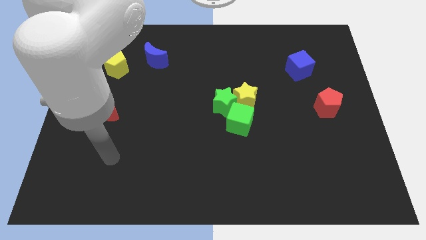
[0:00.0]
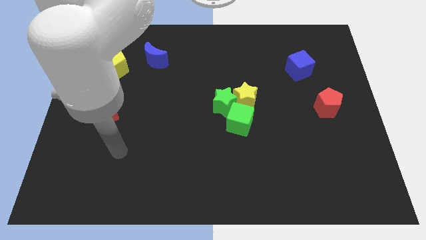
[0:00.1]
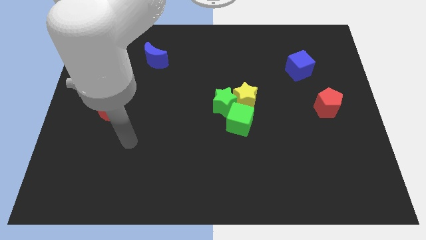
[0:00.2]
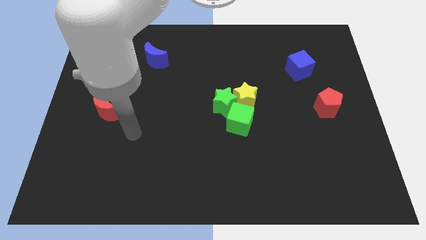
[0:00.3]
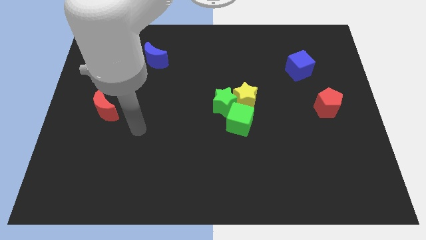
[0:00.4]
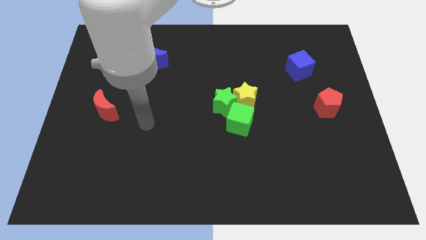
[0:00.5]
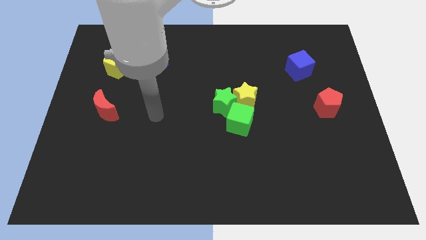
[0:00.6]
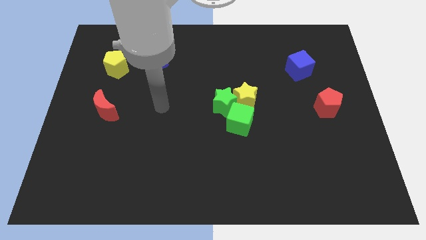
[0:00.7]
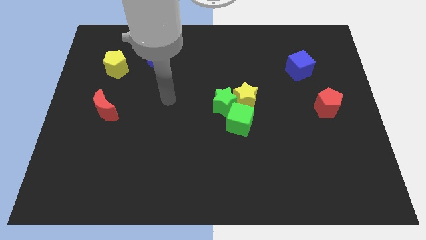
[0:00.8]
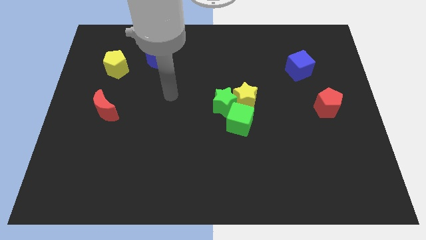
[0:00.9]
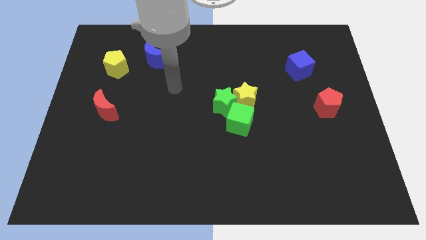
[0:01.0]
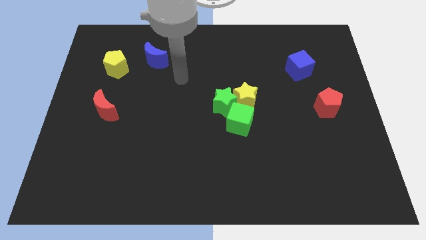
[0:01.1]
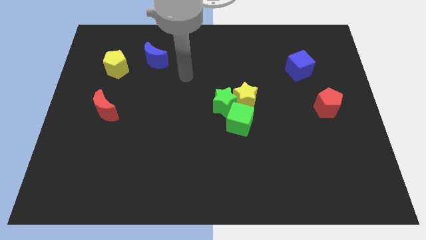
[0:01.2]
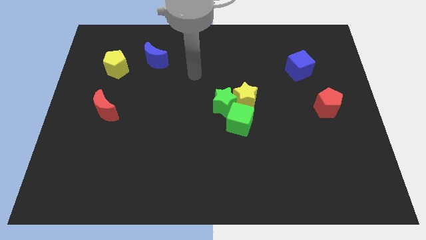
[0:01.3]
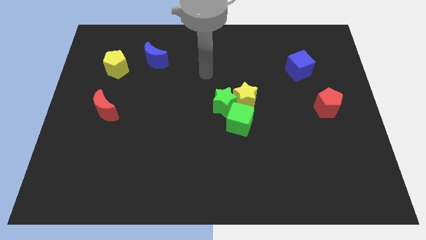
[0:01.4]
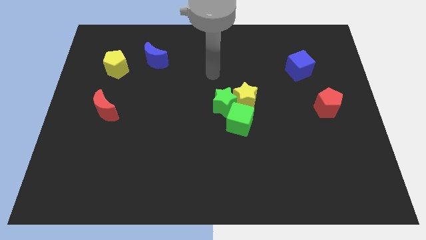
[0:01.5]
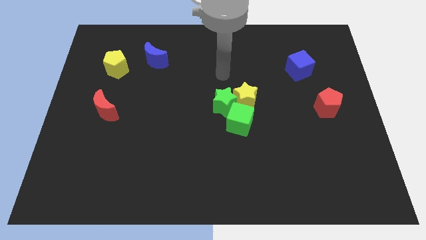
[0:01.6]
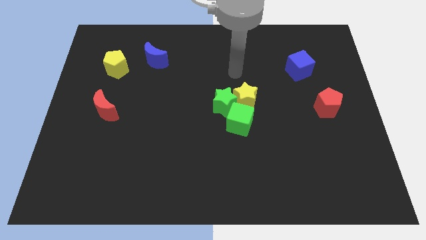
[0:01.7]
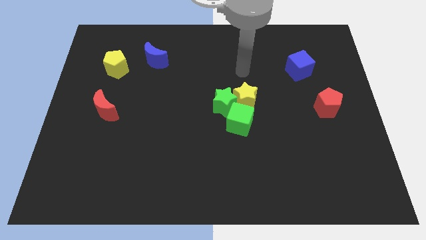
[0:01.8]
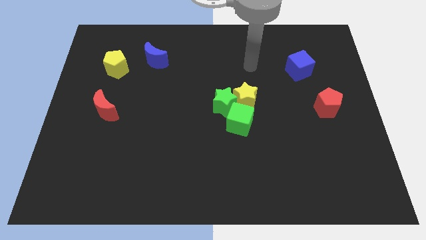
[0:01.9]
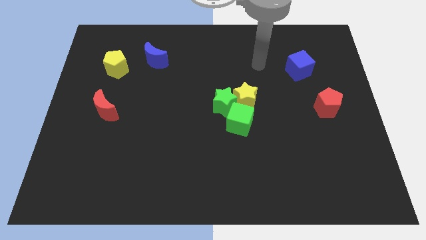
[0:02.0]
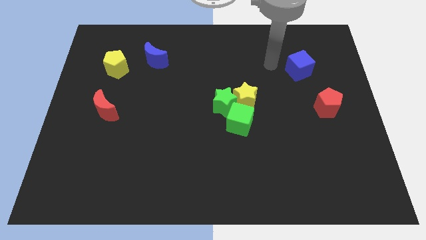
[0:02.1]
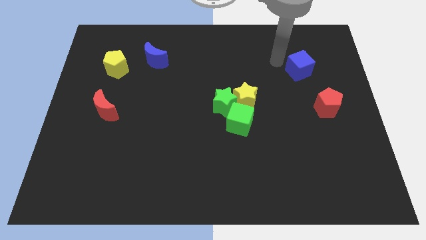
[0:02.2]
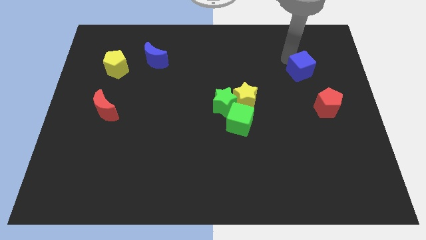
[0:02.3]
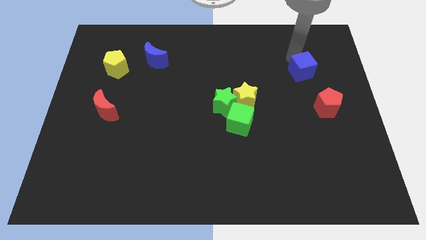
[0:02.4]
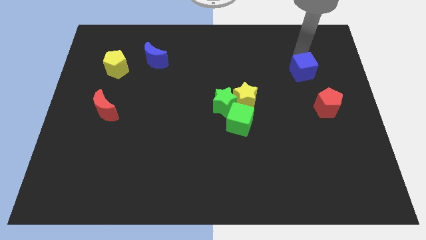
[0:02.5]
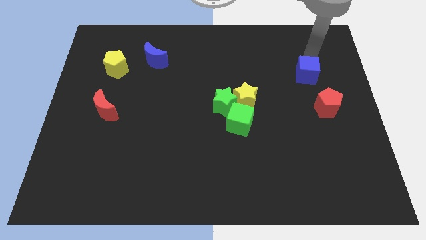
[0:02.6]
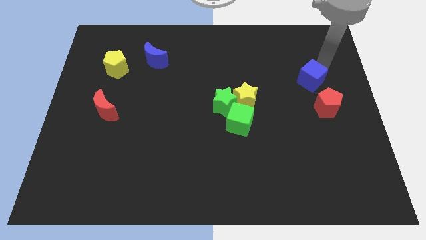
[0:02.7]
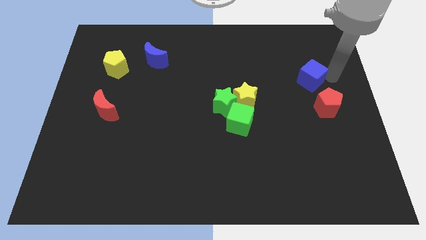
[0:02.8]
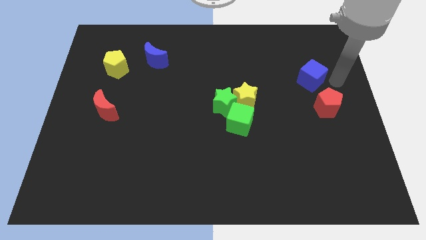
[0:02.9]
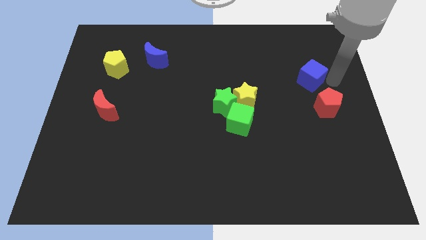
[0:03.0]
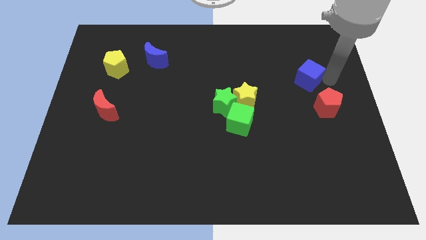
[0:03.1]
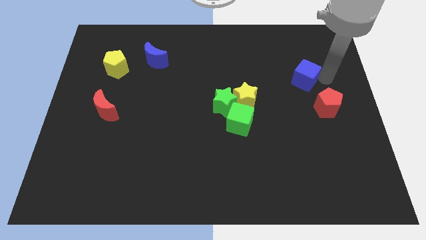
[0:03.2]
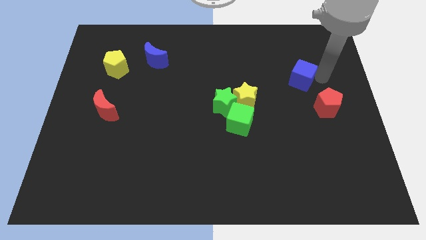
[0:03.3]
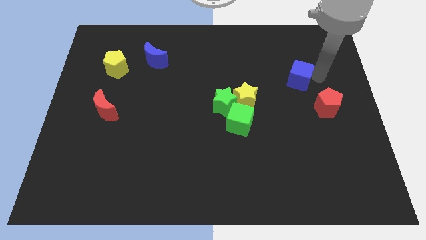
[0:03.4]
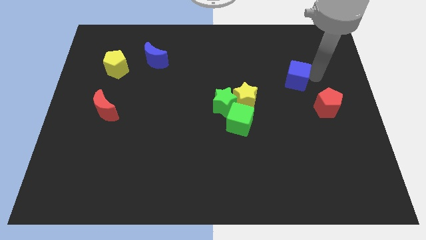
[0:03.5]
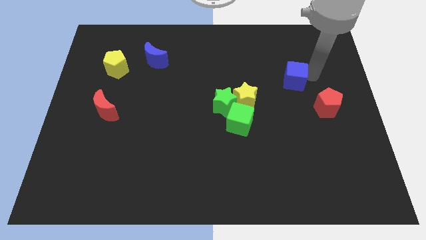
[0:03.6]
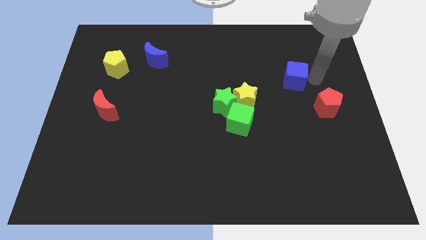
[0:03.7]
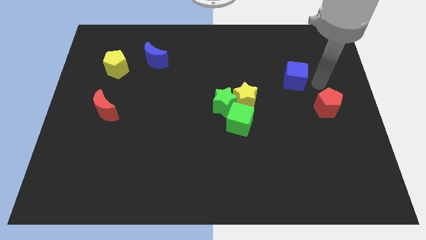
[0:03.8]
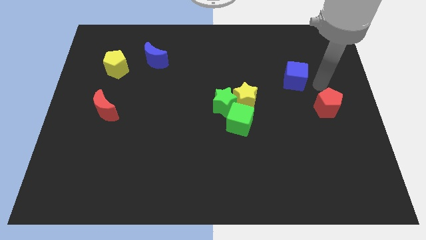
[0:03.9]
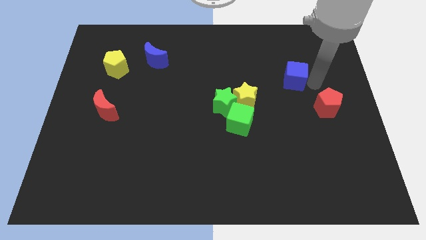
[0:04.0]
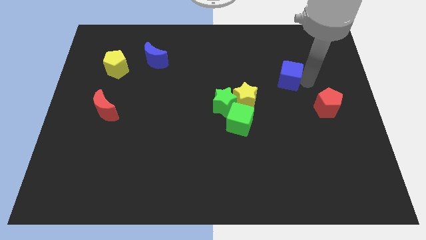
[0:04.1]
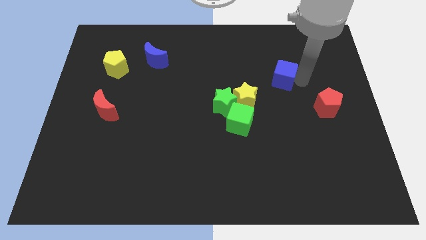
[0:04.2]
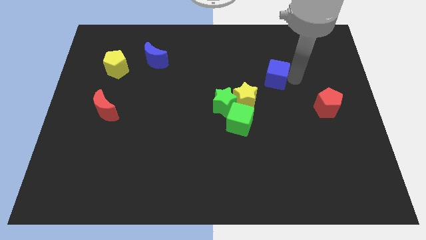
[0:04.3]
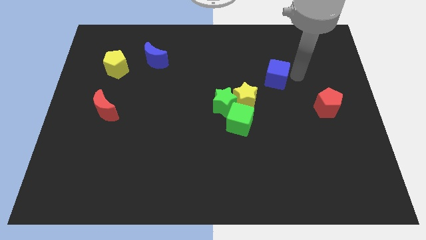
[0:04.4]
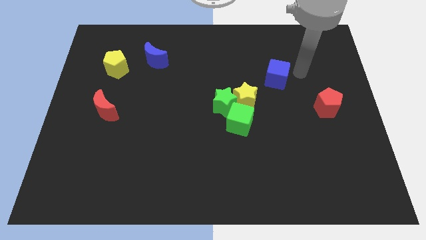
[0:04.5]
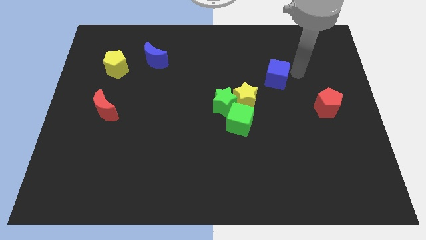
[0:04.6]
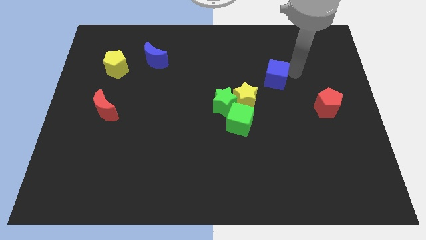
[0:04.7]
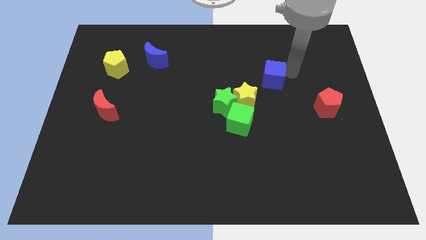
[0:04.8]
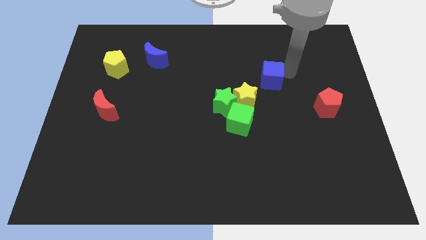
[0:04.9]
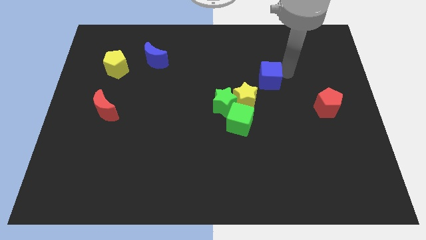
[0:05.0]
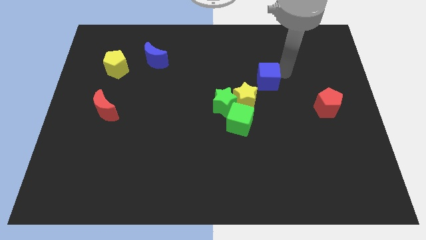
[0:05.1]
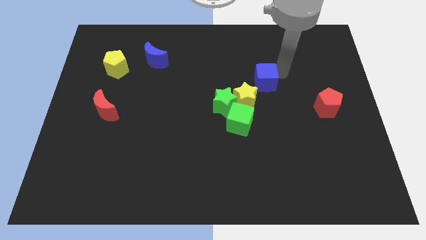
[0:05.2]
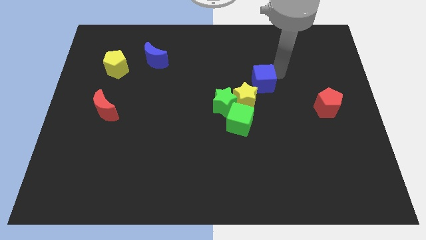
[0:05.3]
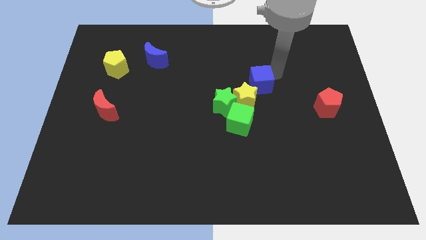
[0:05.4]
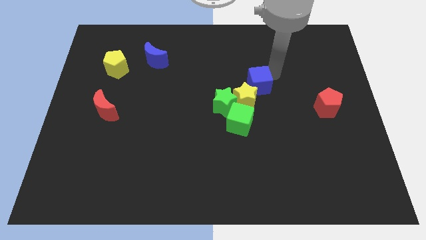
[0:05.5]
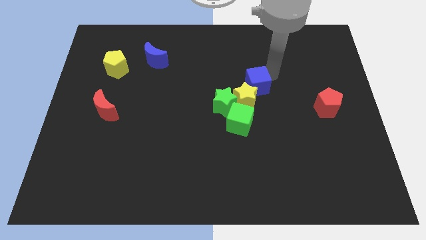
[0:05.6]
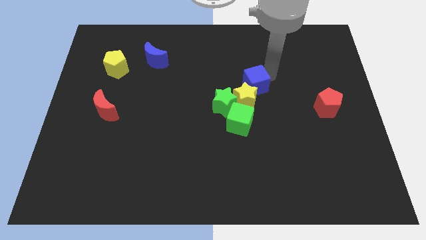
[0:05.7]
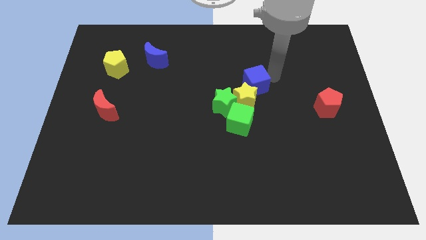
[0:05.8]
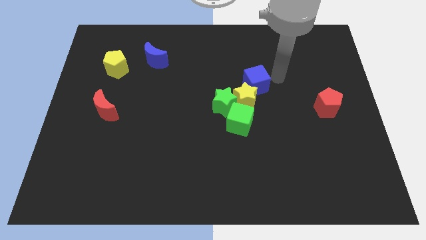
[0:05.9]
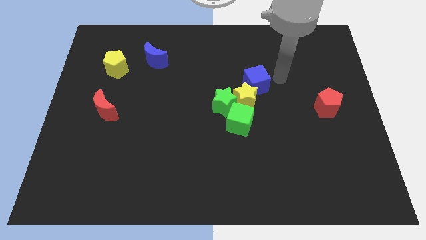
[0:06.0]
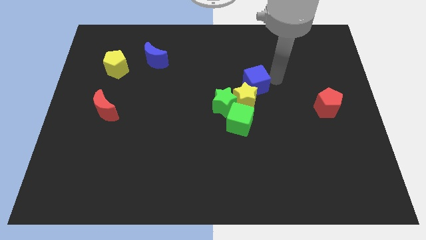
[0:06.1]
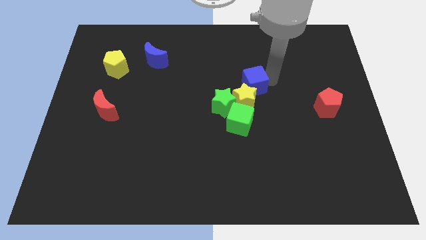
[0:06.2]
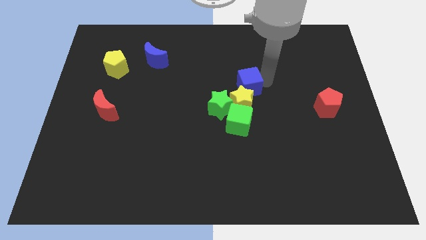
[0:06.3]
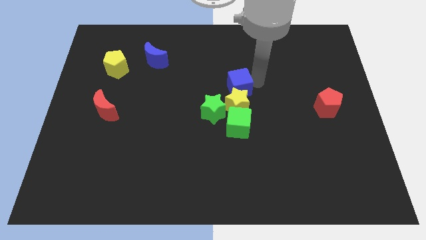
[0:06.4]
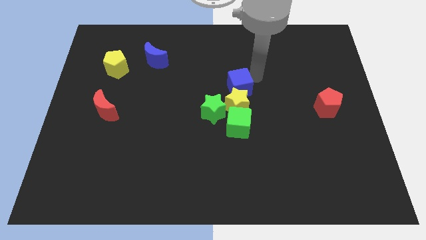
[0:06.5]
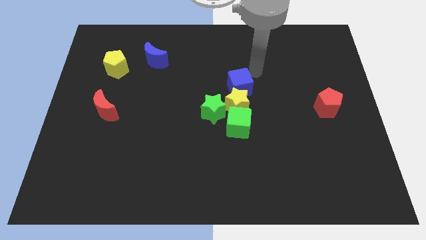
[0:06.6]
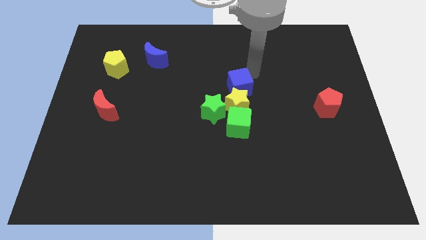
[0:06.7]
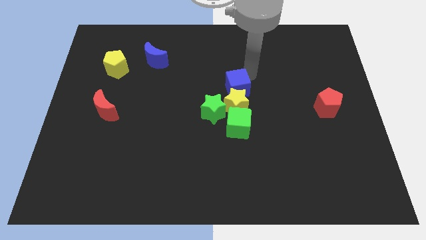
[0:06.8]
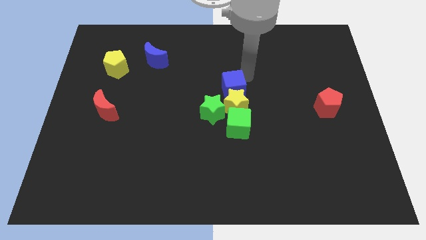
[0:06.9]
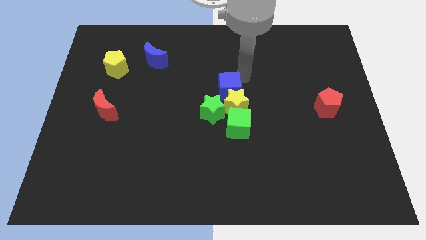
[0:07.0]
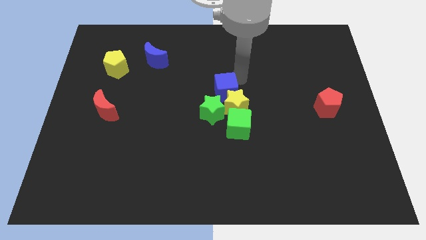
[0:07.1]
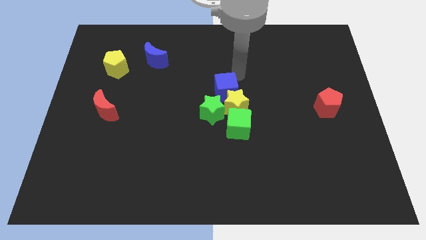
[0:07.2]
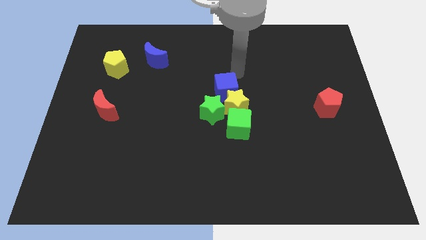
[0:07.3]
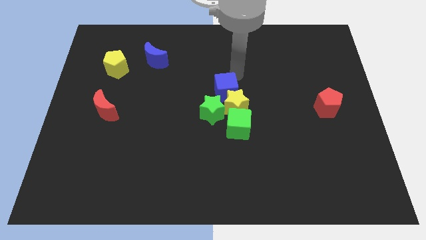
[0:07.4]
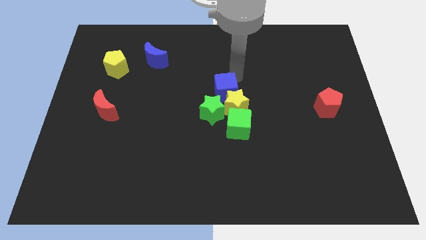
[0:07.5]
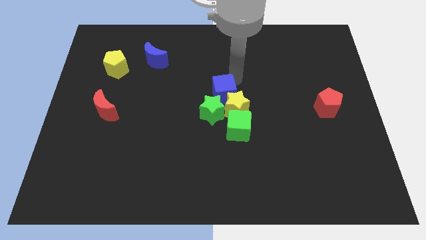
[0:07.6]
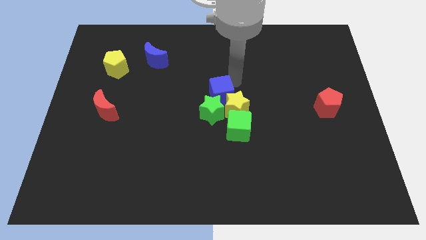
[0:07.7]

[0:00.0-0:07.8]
slide the blue cube close to the green star
